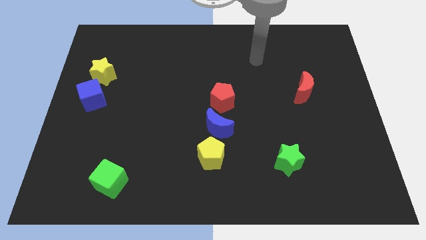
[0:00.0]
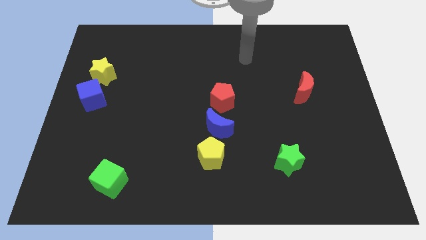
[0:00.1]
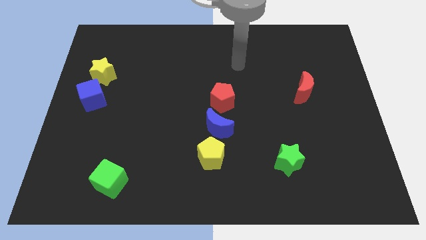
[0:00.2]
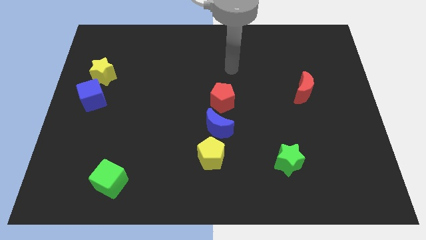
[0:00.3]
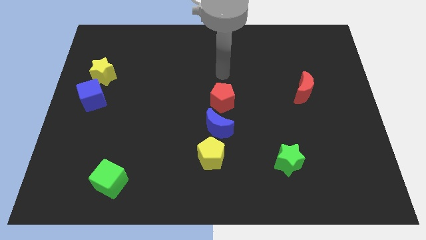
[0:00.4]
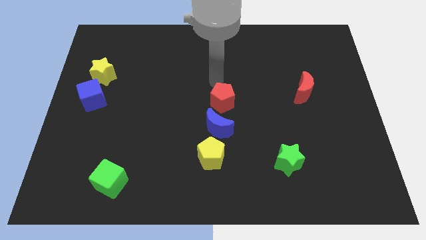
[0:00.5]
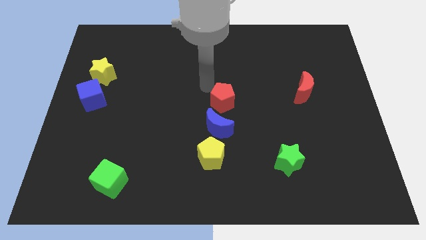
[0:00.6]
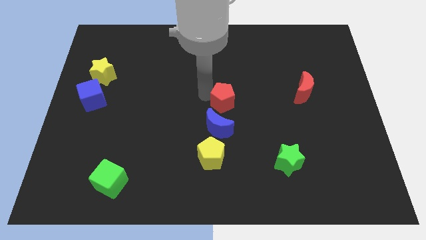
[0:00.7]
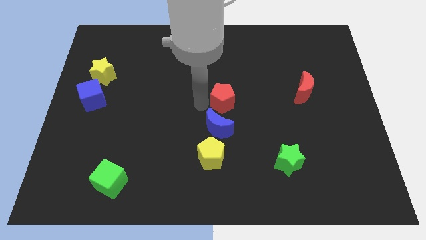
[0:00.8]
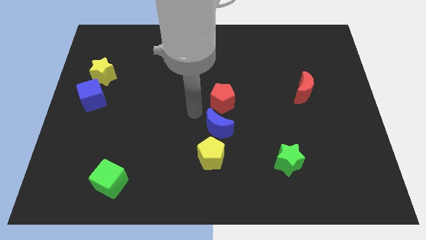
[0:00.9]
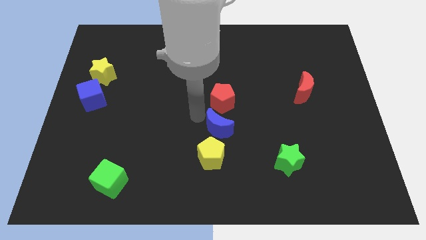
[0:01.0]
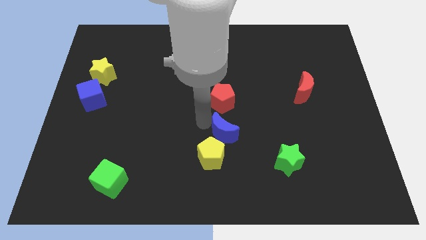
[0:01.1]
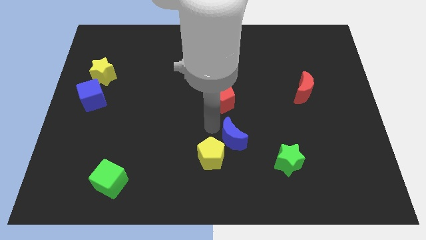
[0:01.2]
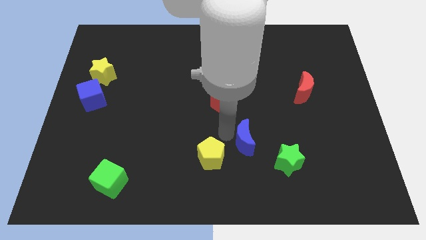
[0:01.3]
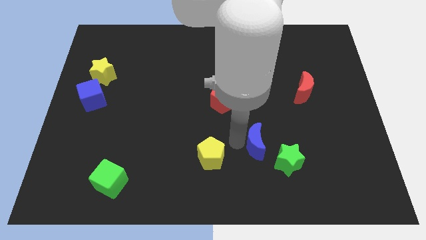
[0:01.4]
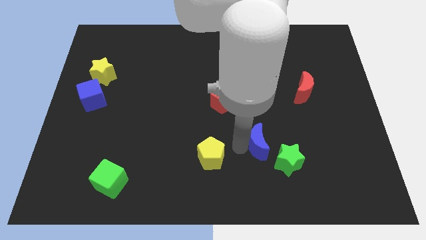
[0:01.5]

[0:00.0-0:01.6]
pull the yellow pentagon apart from the blue moon

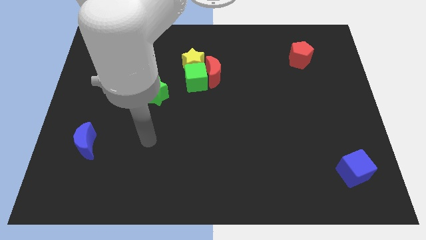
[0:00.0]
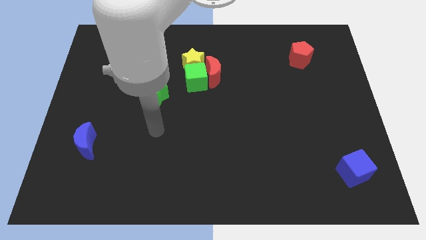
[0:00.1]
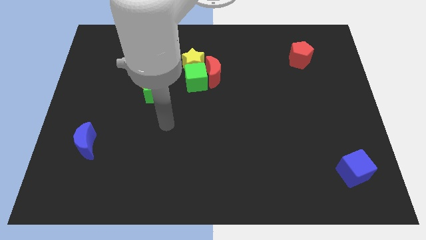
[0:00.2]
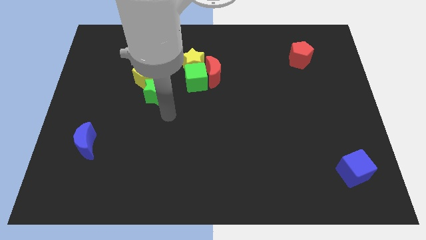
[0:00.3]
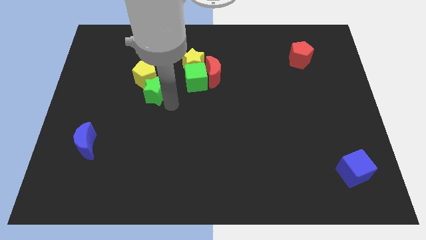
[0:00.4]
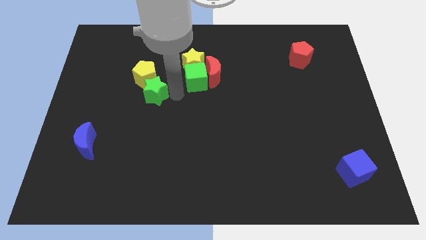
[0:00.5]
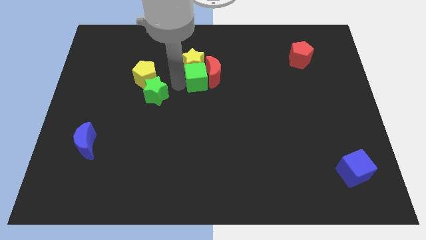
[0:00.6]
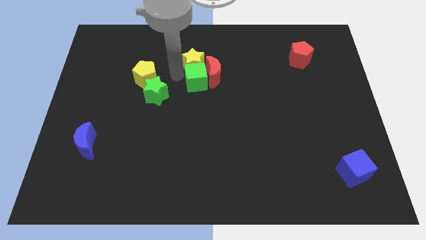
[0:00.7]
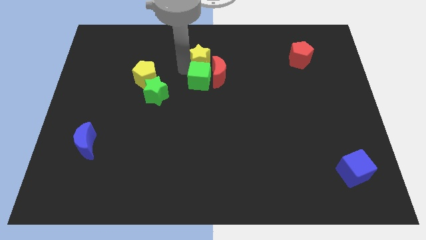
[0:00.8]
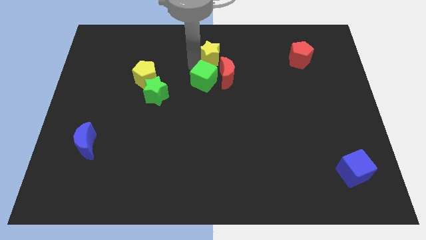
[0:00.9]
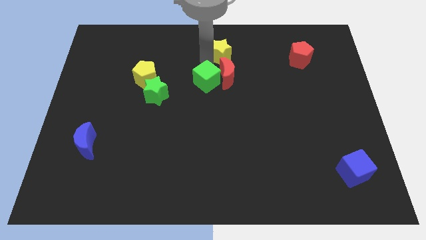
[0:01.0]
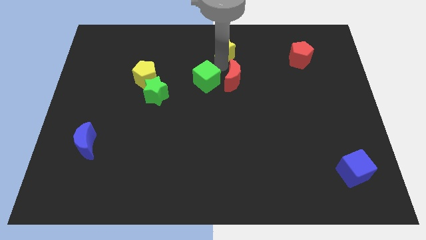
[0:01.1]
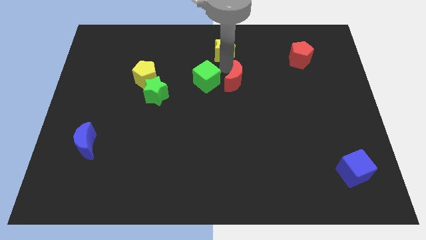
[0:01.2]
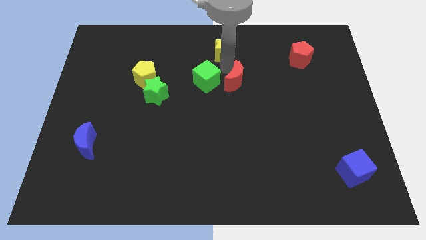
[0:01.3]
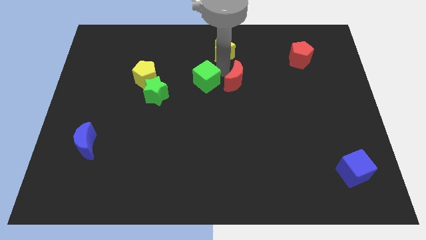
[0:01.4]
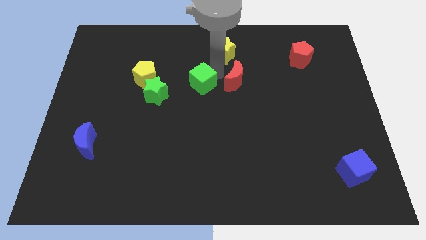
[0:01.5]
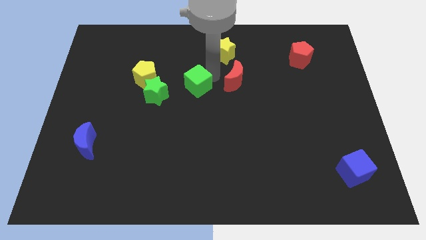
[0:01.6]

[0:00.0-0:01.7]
pull the green cube apart from the red moon and yellow star

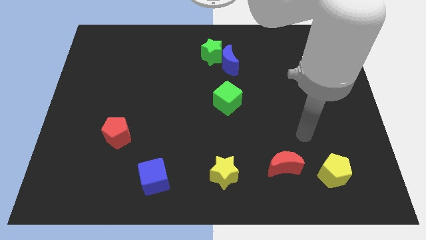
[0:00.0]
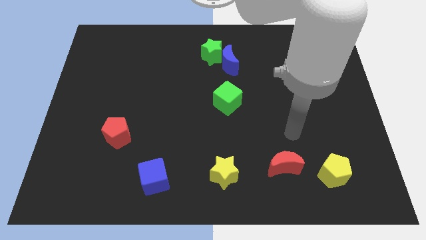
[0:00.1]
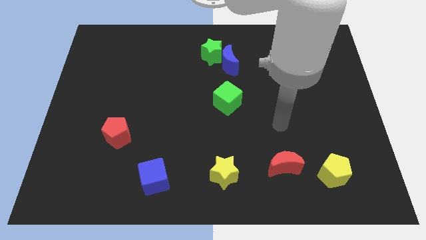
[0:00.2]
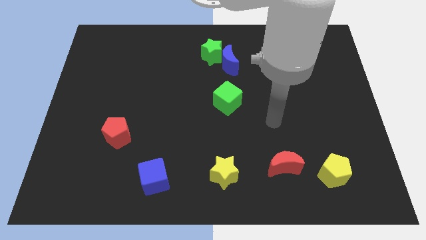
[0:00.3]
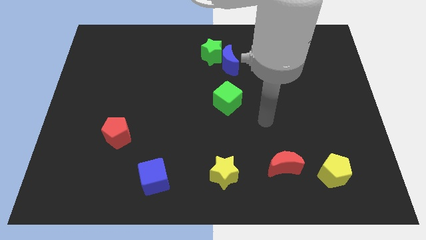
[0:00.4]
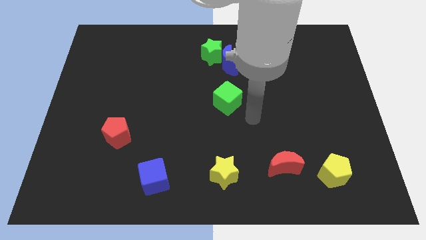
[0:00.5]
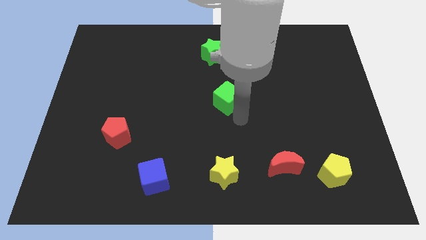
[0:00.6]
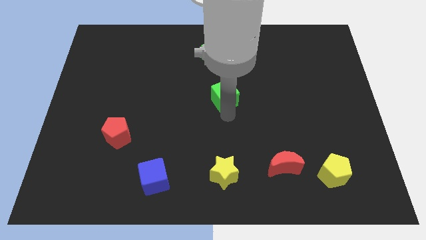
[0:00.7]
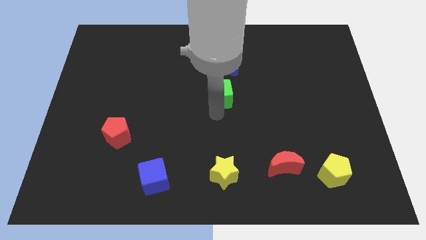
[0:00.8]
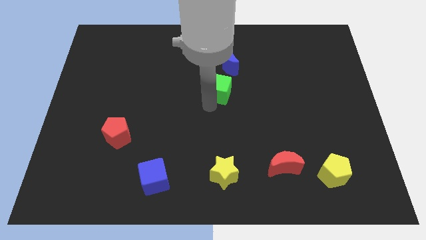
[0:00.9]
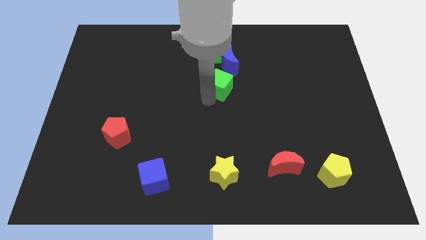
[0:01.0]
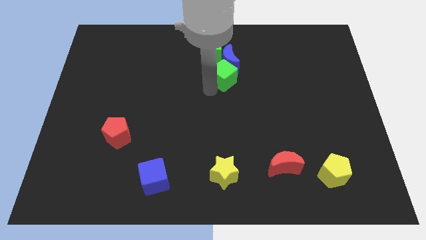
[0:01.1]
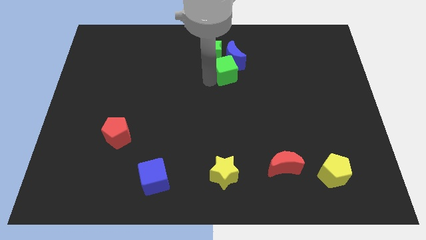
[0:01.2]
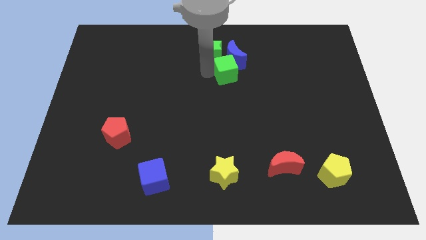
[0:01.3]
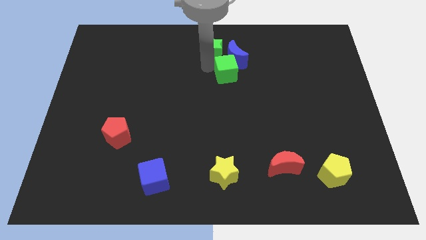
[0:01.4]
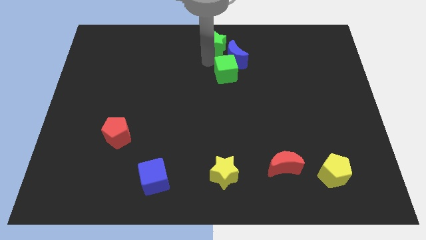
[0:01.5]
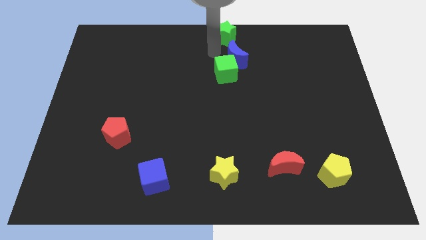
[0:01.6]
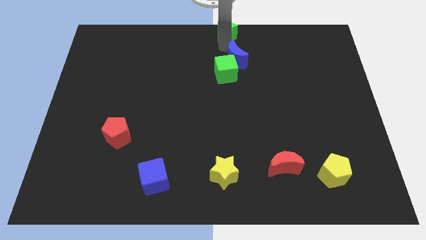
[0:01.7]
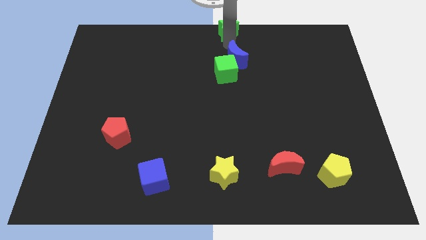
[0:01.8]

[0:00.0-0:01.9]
separate the blue moon from the green star

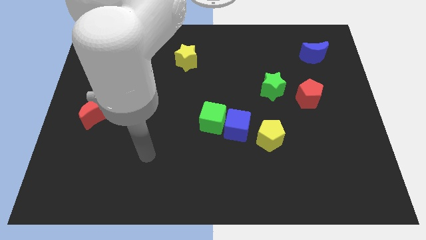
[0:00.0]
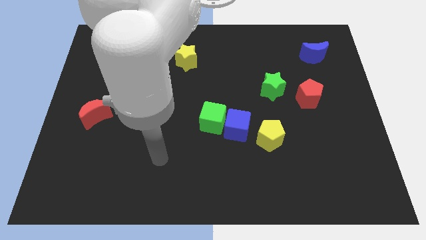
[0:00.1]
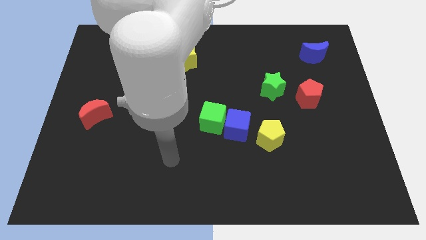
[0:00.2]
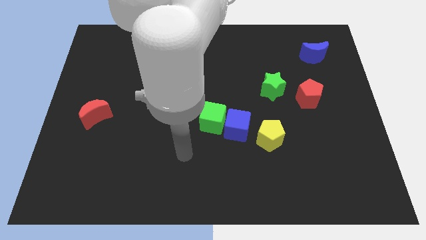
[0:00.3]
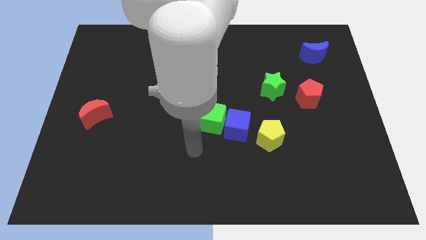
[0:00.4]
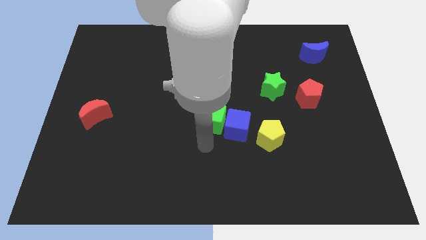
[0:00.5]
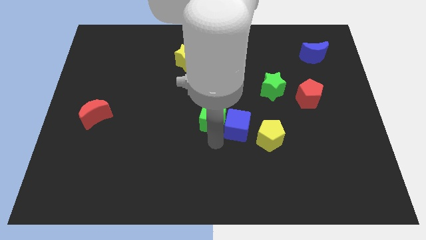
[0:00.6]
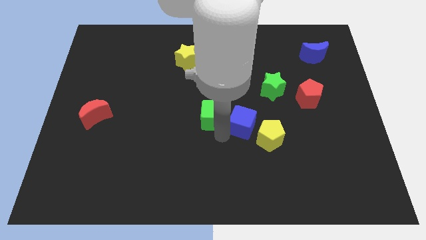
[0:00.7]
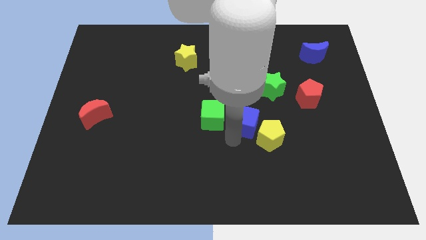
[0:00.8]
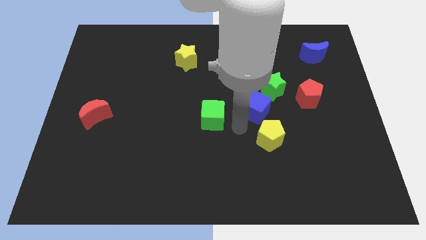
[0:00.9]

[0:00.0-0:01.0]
pull the green cube apart from the blue cube

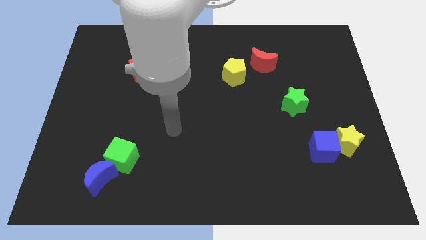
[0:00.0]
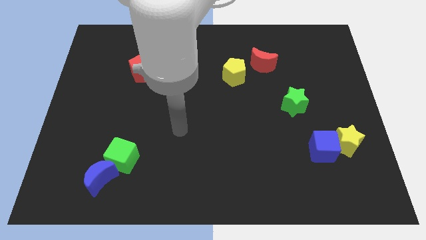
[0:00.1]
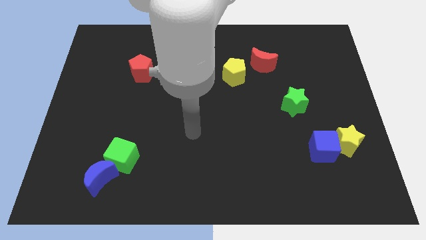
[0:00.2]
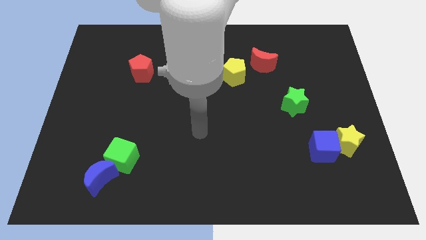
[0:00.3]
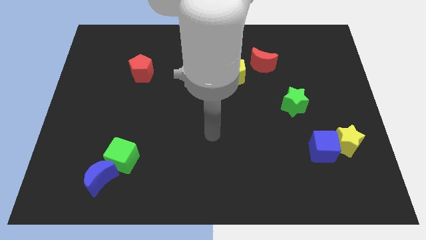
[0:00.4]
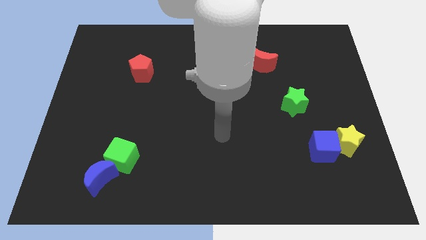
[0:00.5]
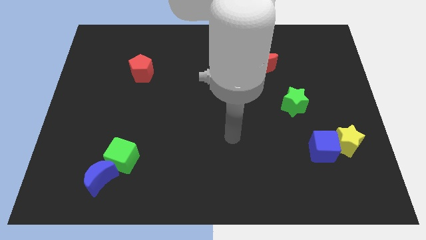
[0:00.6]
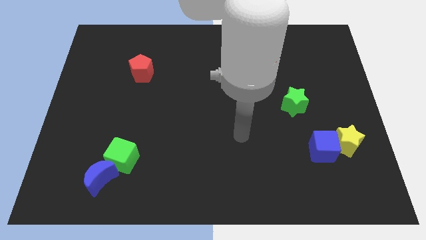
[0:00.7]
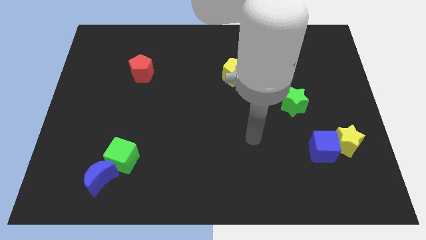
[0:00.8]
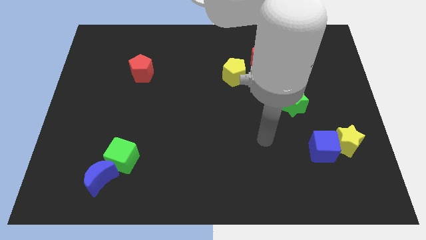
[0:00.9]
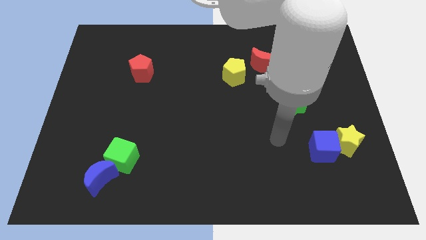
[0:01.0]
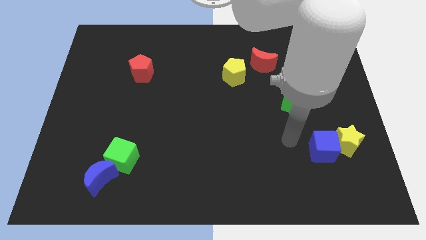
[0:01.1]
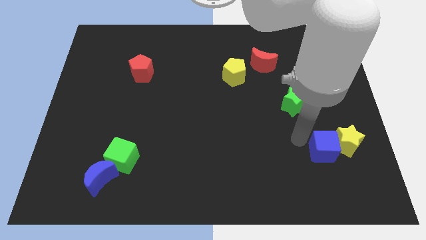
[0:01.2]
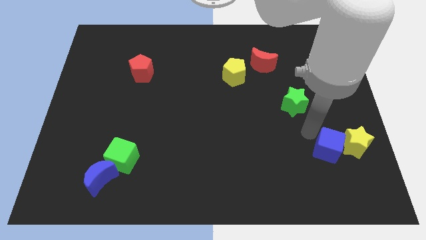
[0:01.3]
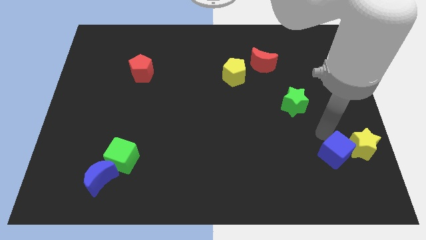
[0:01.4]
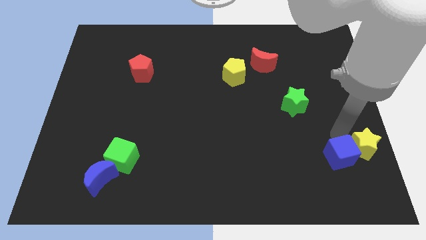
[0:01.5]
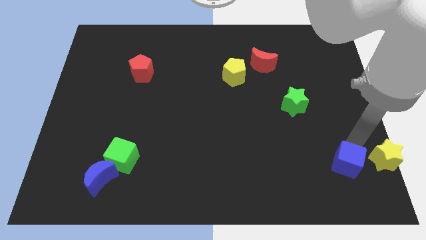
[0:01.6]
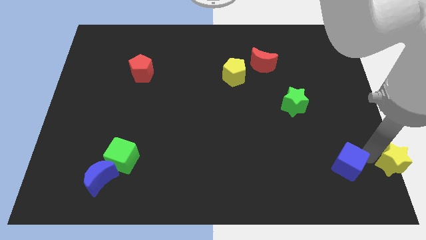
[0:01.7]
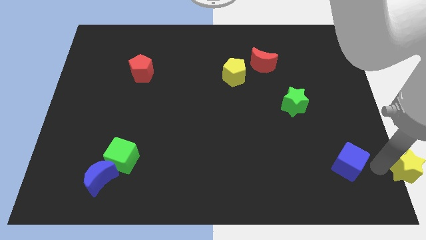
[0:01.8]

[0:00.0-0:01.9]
separate the blue cube from the yellow star

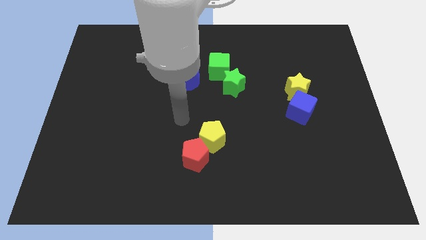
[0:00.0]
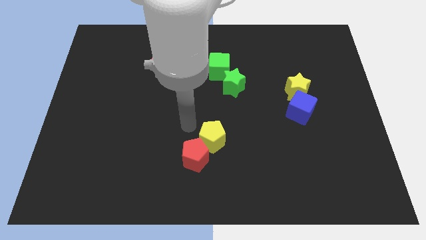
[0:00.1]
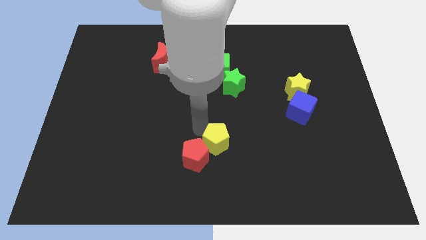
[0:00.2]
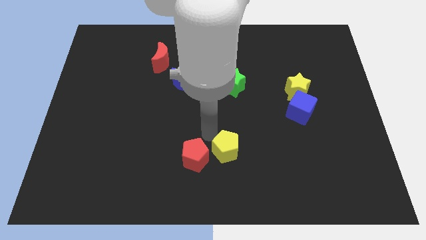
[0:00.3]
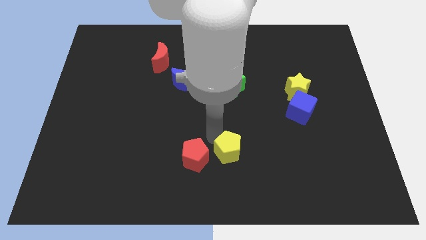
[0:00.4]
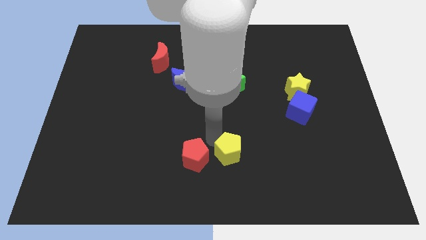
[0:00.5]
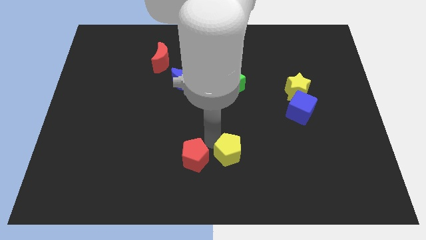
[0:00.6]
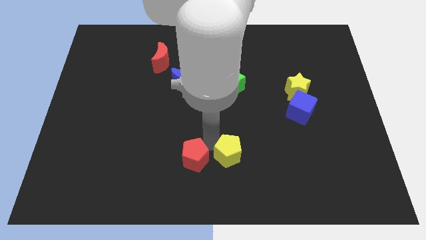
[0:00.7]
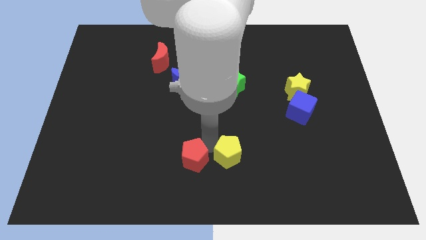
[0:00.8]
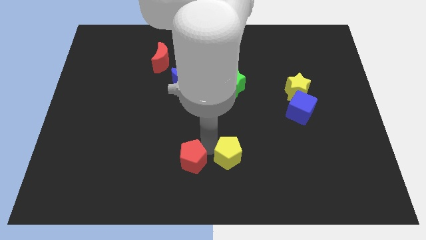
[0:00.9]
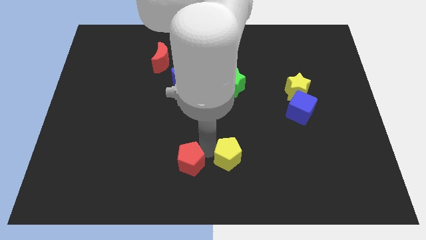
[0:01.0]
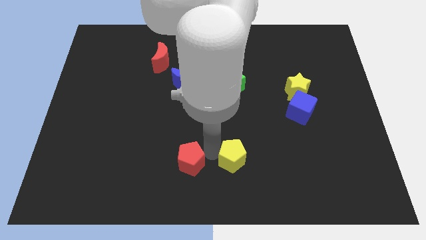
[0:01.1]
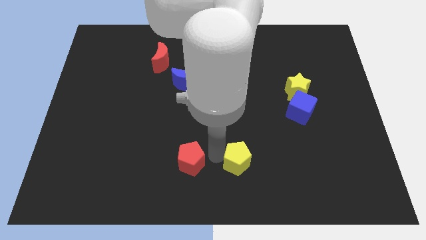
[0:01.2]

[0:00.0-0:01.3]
separate the red pentagon from the yellow pentagon

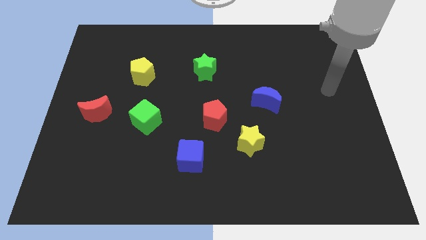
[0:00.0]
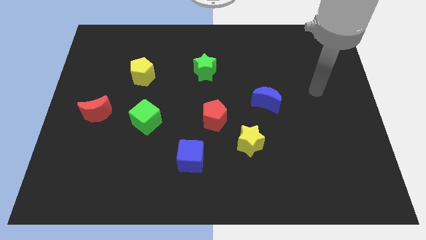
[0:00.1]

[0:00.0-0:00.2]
move the red pentagon away from the yellow star
